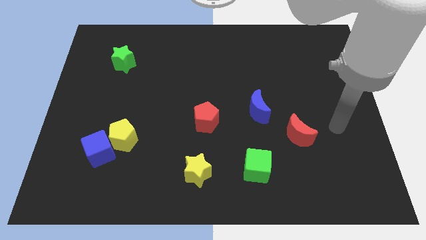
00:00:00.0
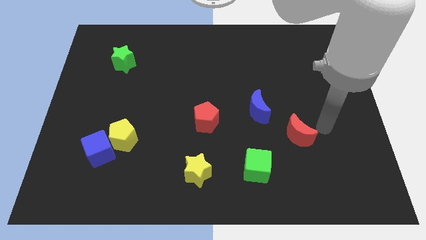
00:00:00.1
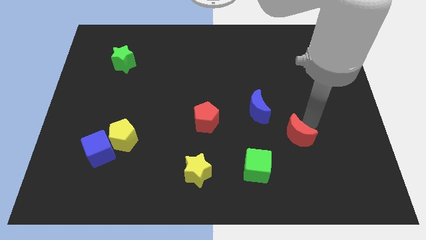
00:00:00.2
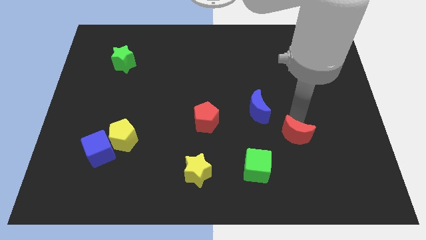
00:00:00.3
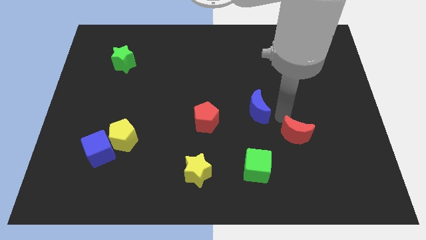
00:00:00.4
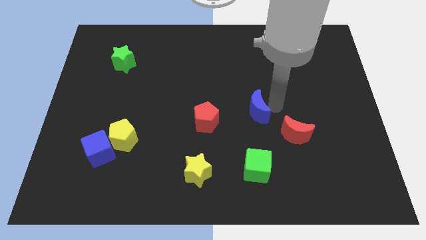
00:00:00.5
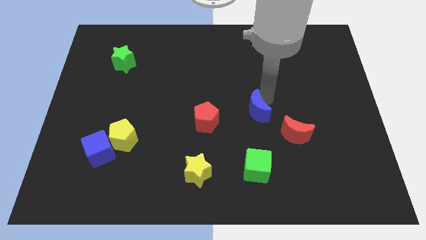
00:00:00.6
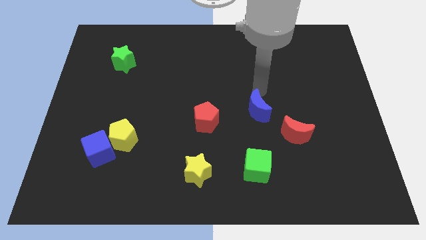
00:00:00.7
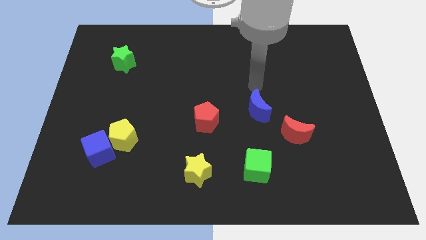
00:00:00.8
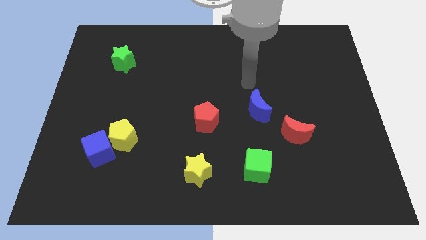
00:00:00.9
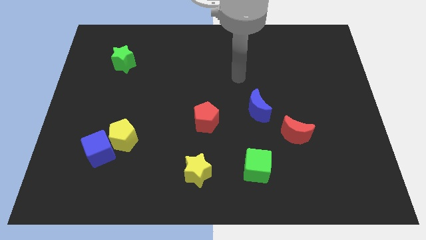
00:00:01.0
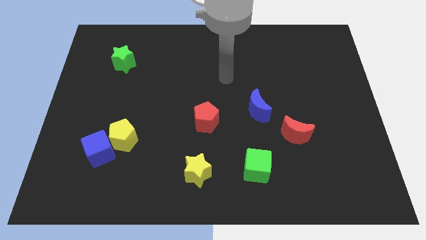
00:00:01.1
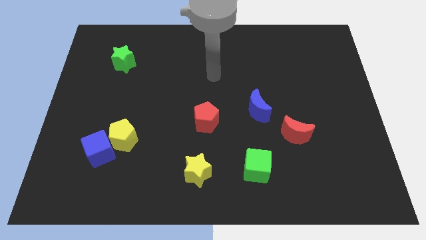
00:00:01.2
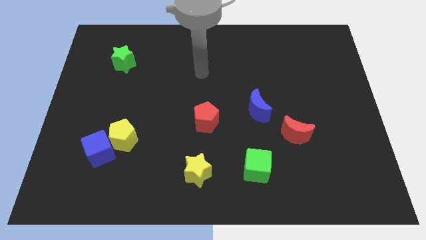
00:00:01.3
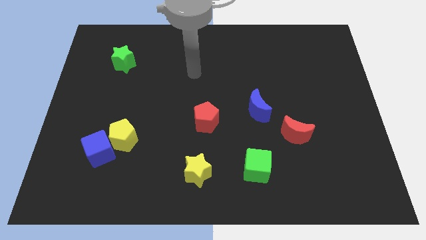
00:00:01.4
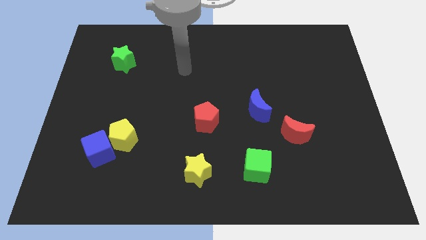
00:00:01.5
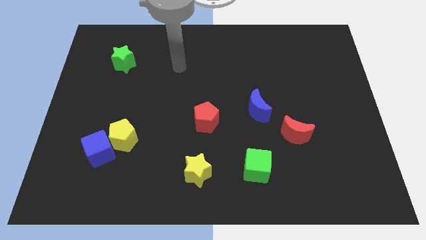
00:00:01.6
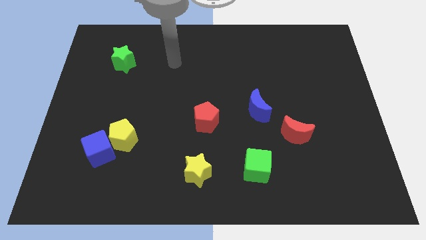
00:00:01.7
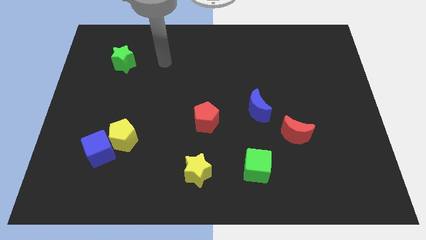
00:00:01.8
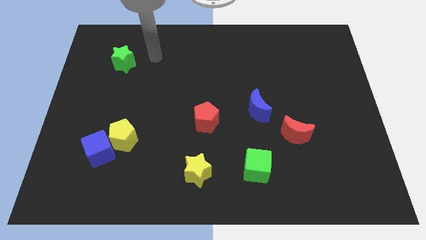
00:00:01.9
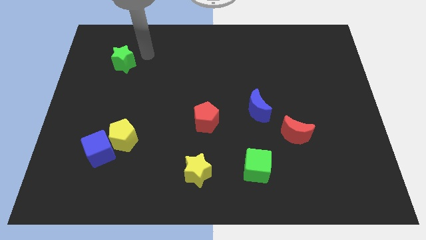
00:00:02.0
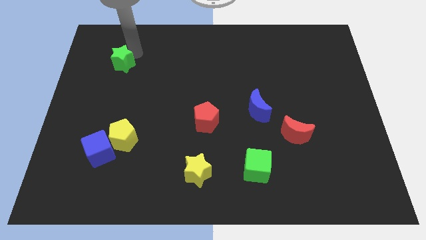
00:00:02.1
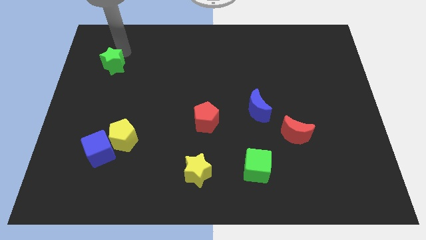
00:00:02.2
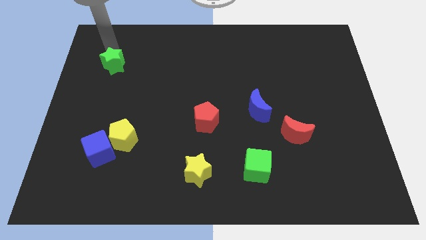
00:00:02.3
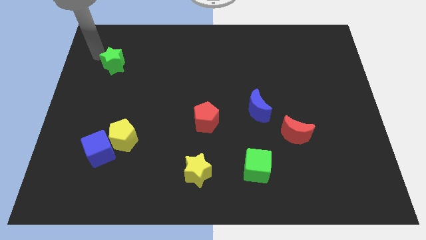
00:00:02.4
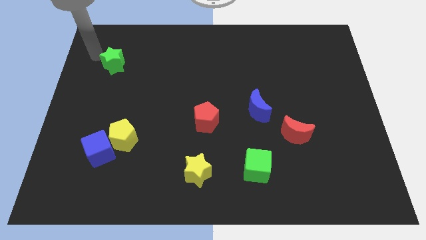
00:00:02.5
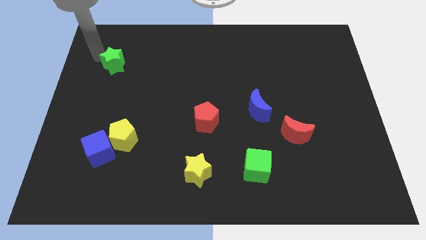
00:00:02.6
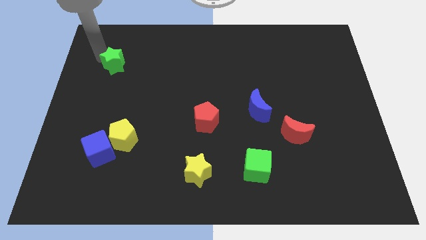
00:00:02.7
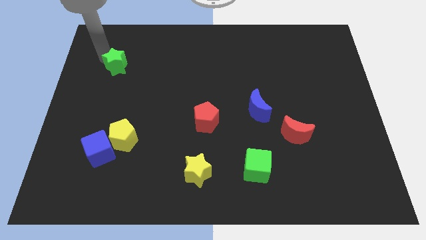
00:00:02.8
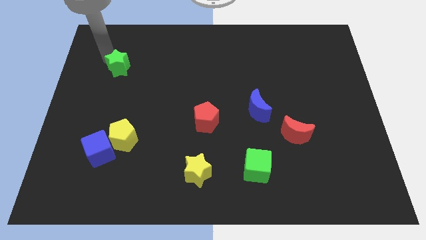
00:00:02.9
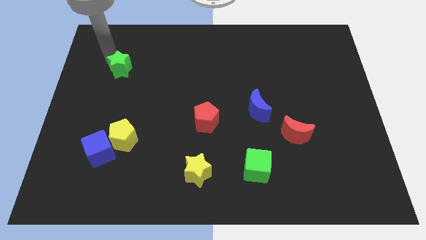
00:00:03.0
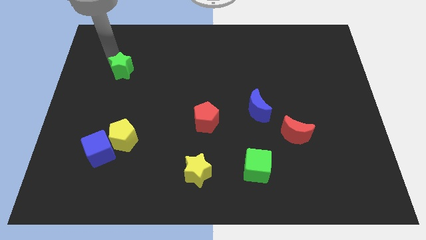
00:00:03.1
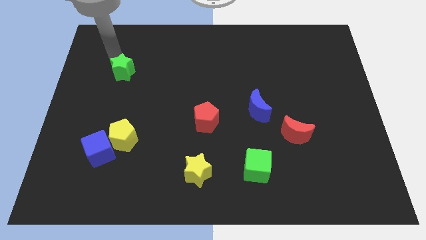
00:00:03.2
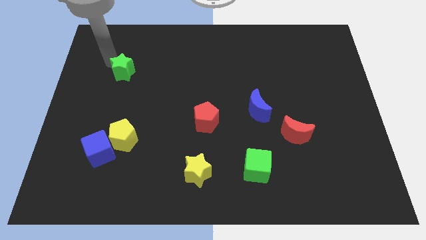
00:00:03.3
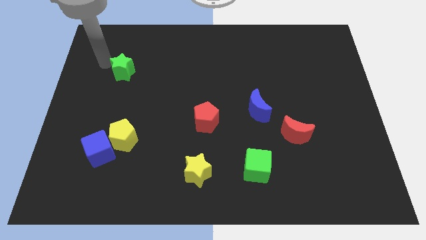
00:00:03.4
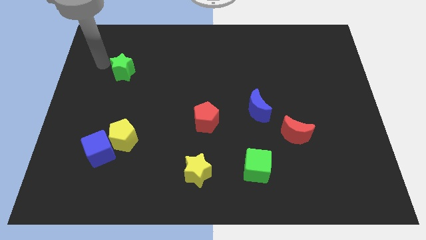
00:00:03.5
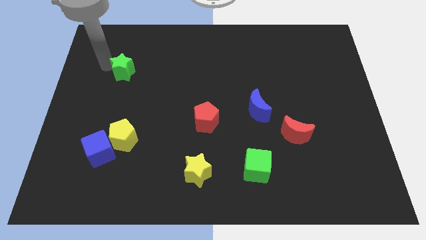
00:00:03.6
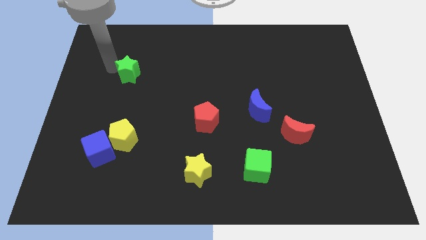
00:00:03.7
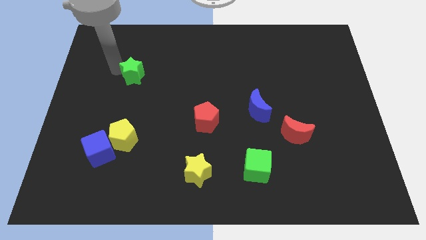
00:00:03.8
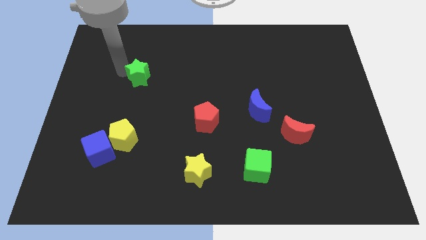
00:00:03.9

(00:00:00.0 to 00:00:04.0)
push the green star downwards and to the right a bit

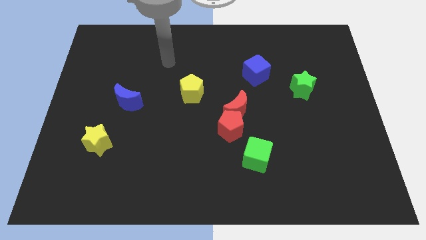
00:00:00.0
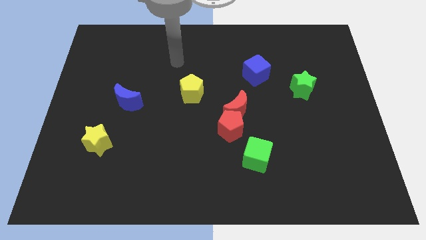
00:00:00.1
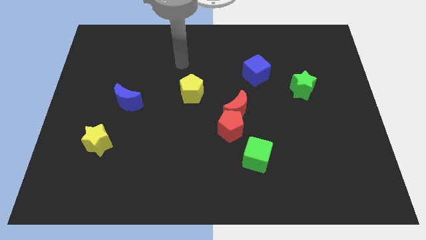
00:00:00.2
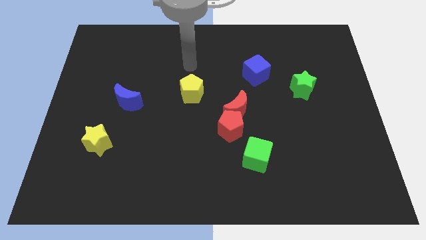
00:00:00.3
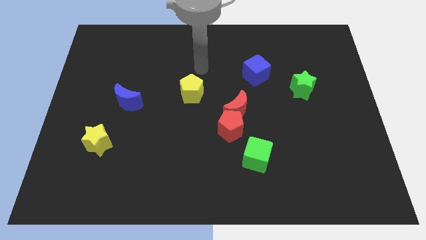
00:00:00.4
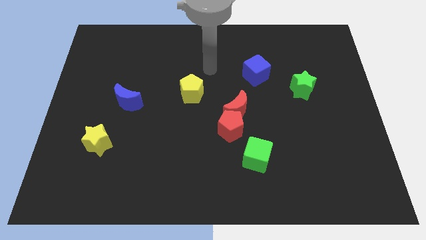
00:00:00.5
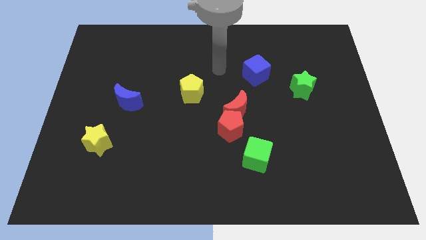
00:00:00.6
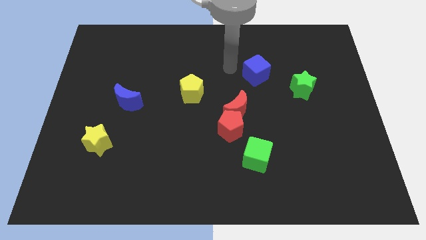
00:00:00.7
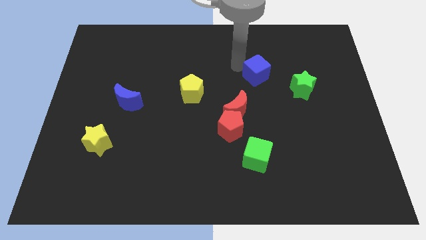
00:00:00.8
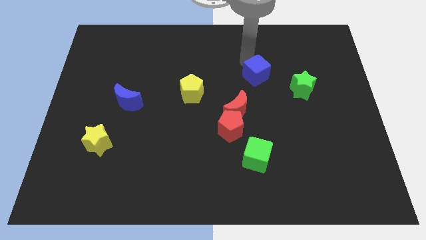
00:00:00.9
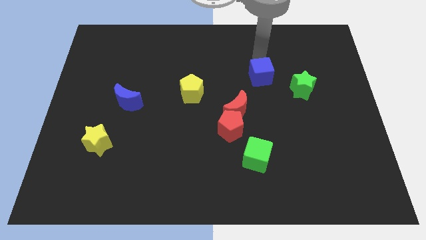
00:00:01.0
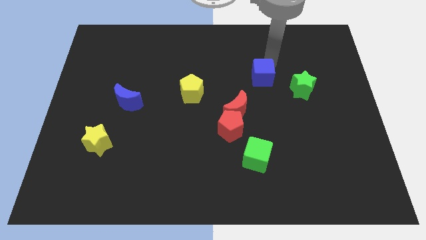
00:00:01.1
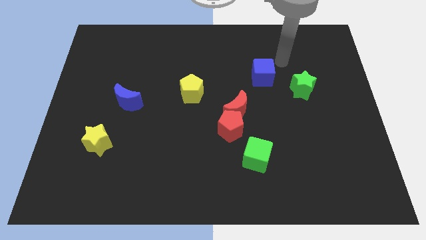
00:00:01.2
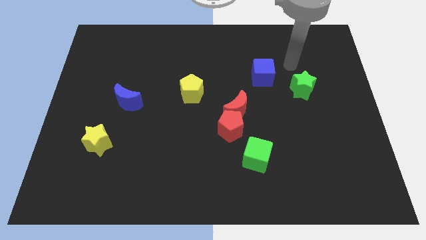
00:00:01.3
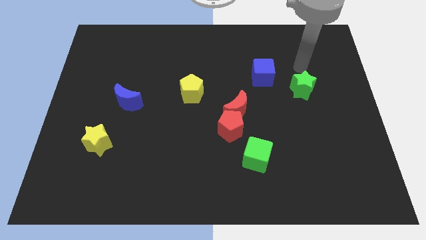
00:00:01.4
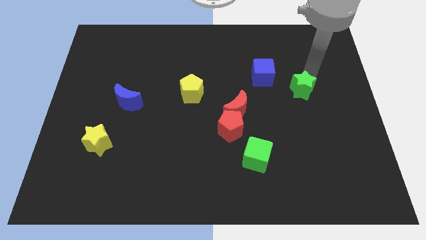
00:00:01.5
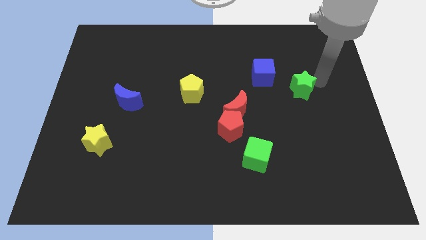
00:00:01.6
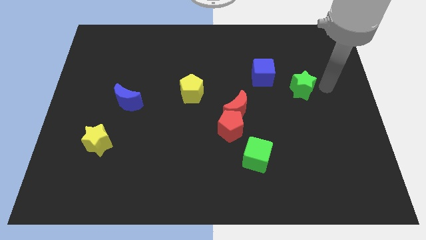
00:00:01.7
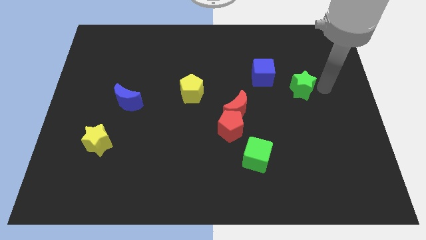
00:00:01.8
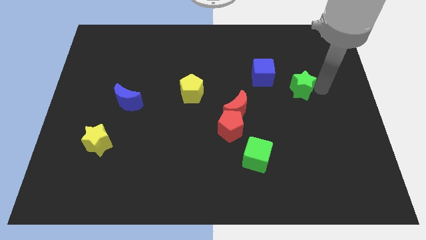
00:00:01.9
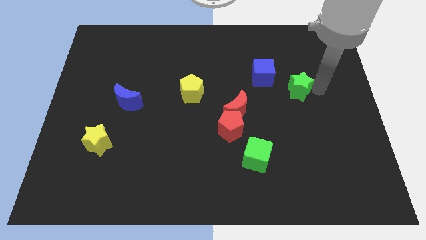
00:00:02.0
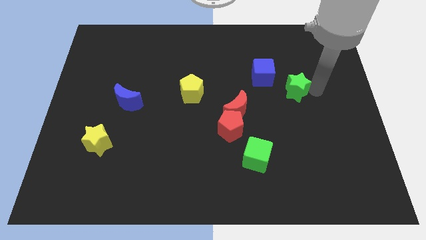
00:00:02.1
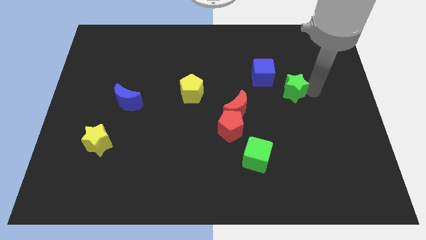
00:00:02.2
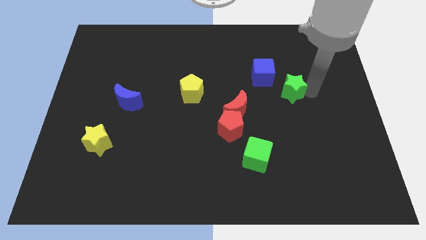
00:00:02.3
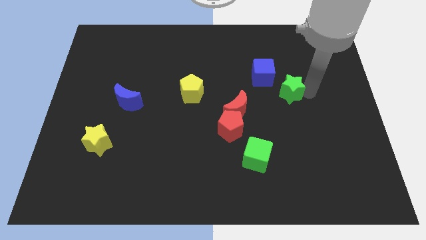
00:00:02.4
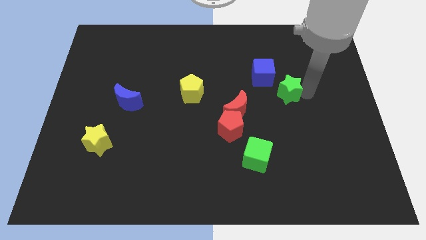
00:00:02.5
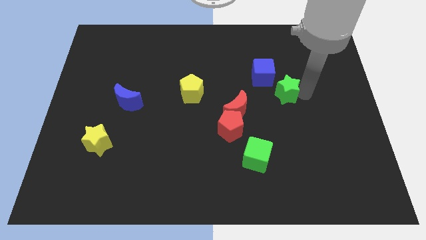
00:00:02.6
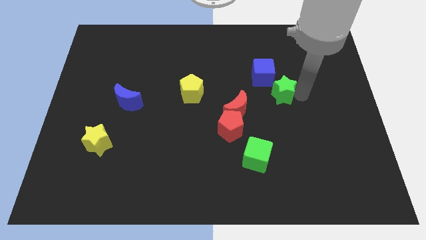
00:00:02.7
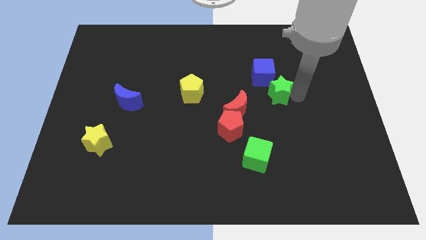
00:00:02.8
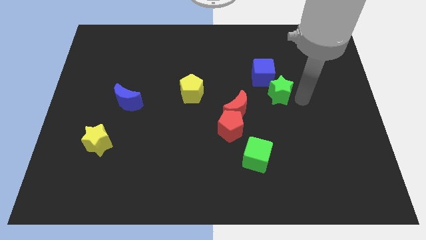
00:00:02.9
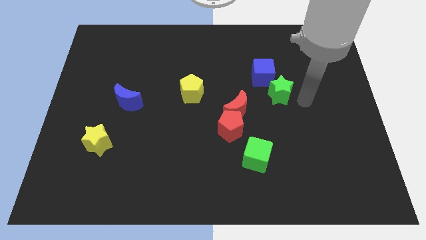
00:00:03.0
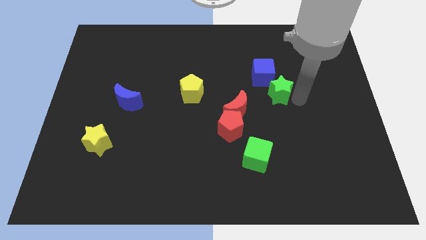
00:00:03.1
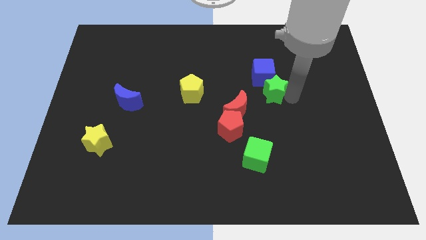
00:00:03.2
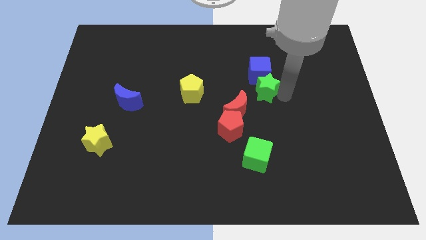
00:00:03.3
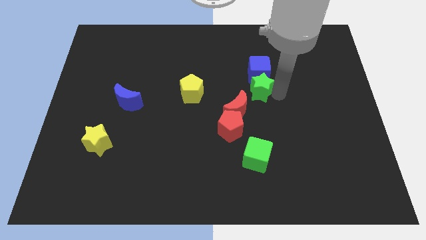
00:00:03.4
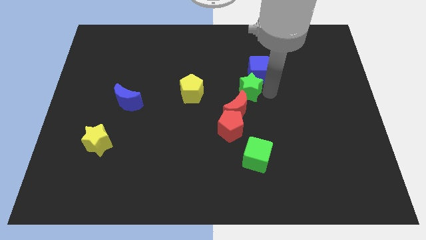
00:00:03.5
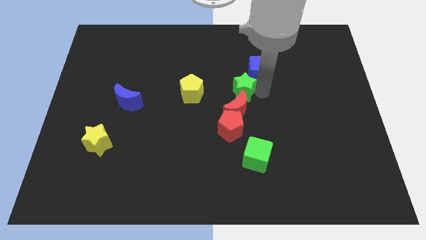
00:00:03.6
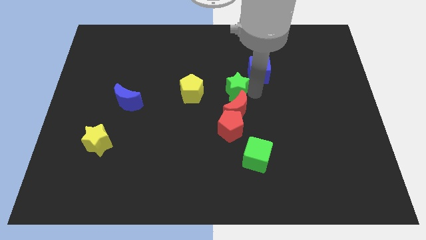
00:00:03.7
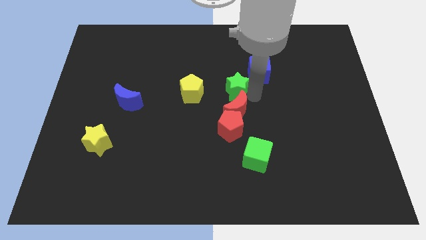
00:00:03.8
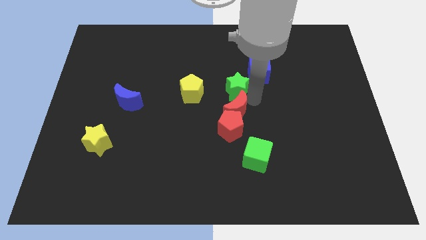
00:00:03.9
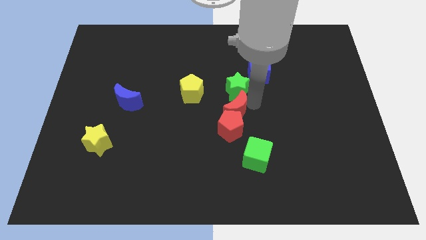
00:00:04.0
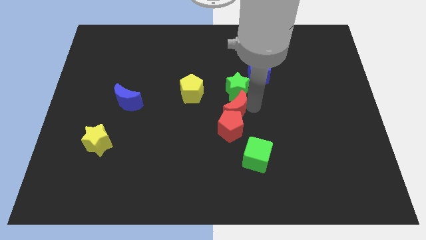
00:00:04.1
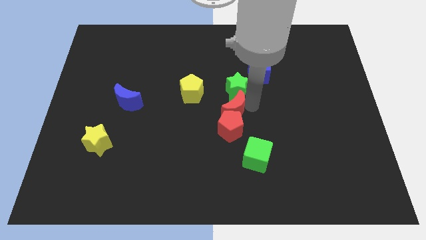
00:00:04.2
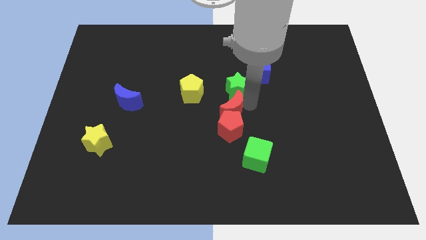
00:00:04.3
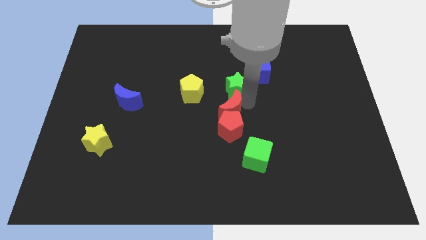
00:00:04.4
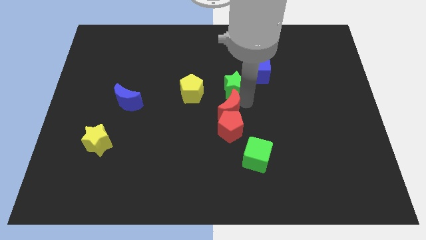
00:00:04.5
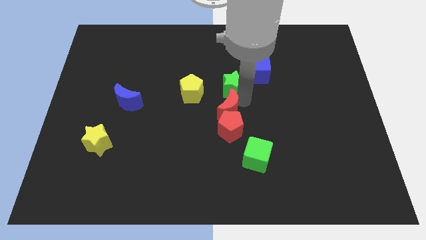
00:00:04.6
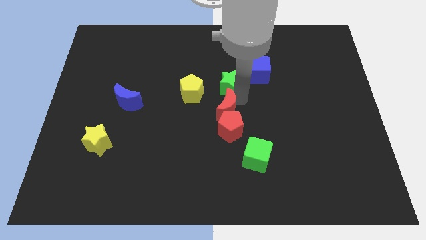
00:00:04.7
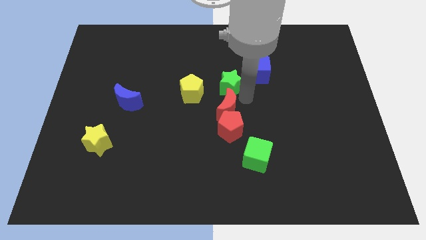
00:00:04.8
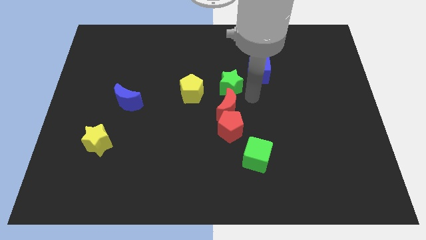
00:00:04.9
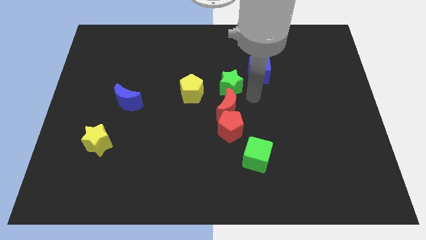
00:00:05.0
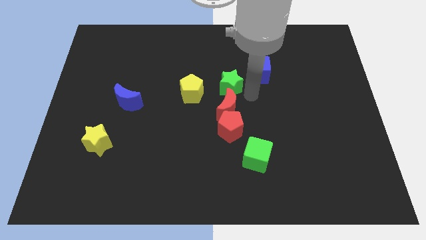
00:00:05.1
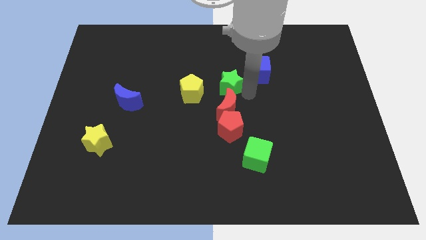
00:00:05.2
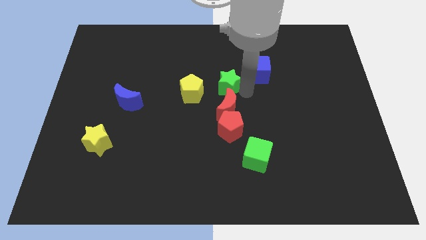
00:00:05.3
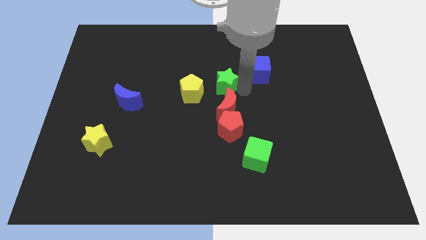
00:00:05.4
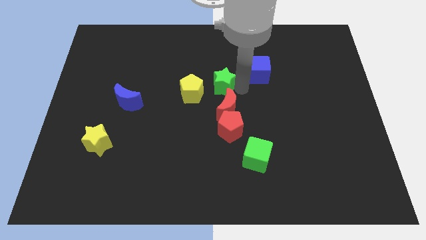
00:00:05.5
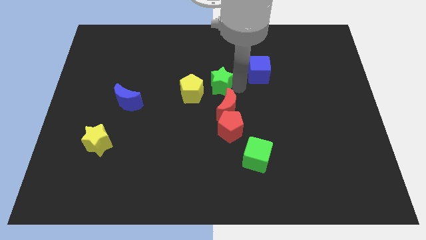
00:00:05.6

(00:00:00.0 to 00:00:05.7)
move the green star to the left
